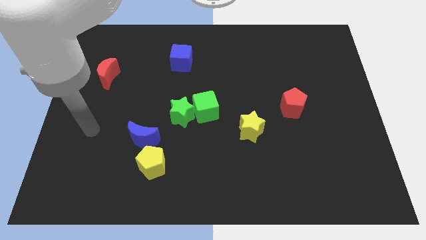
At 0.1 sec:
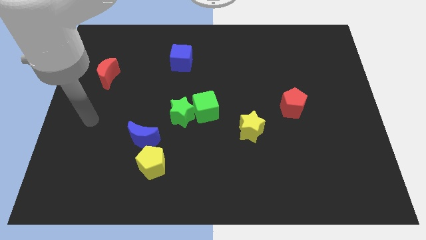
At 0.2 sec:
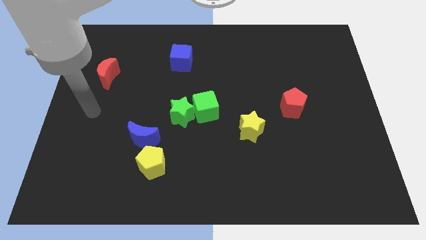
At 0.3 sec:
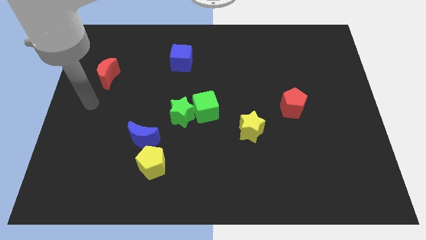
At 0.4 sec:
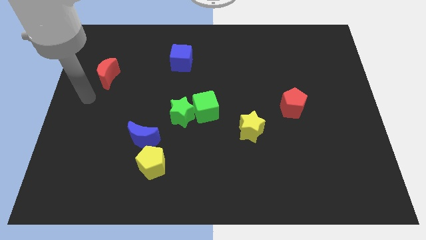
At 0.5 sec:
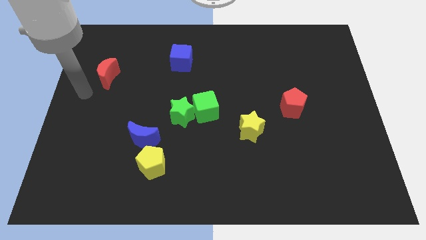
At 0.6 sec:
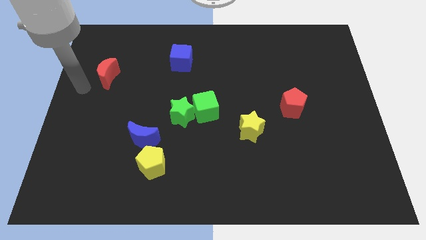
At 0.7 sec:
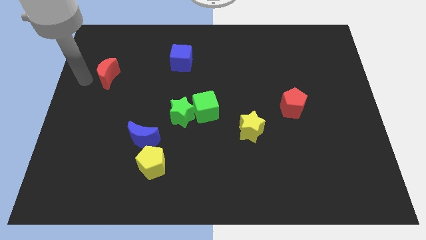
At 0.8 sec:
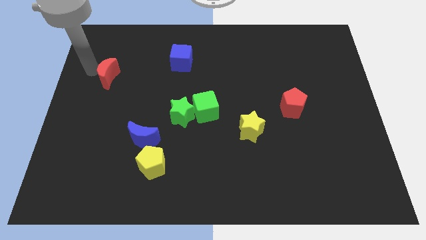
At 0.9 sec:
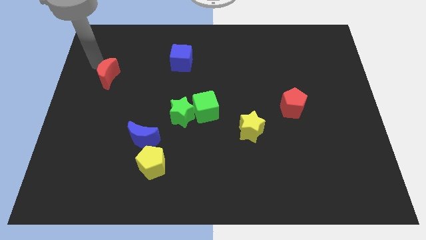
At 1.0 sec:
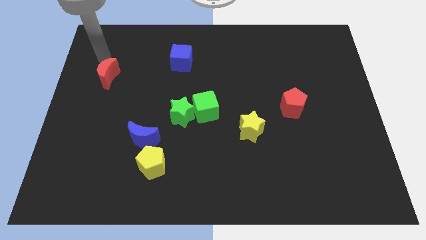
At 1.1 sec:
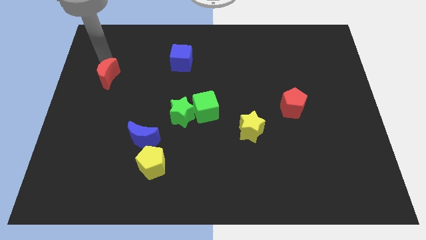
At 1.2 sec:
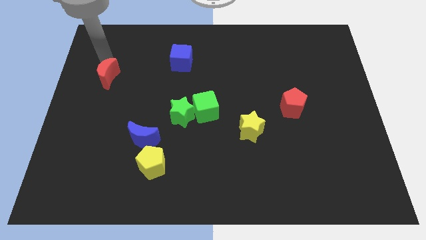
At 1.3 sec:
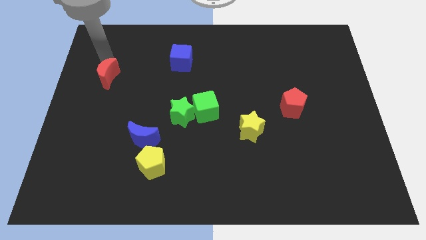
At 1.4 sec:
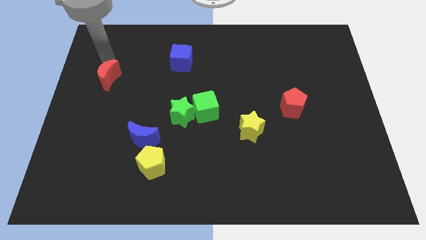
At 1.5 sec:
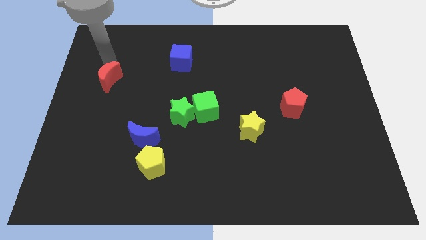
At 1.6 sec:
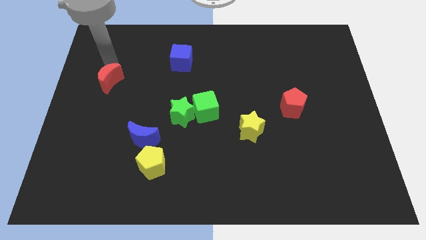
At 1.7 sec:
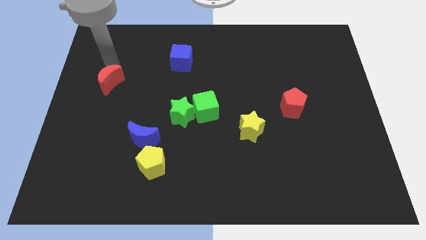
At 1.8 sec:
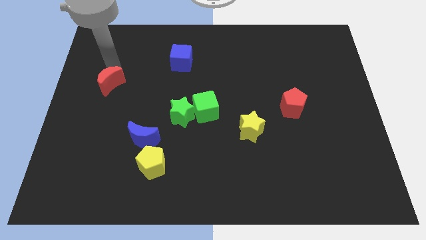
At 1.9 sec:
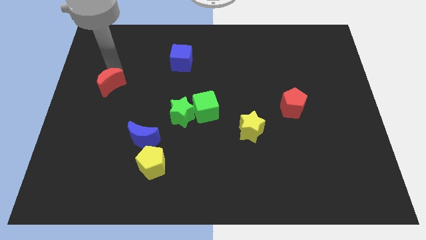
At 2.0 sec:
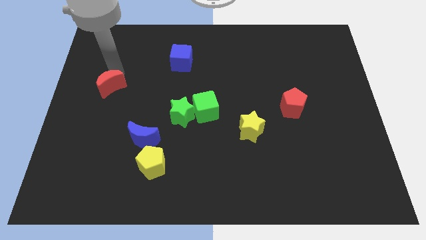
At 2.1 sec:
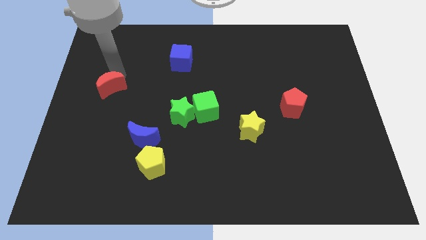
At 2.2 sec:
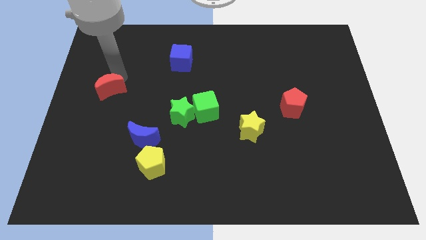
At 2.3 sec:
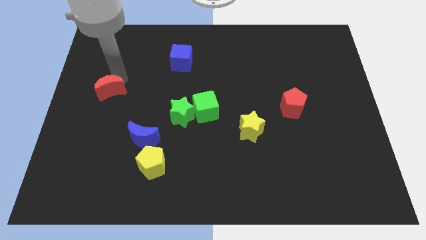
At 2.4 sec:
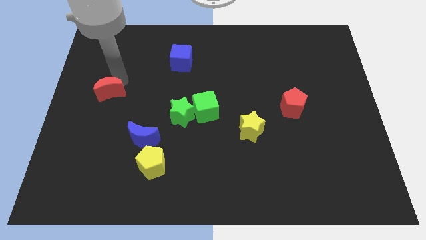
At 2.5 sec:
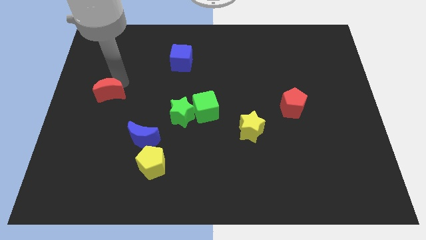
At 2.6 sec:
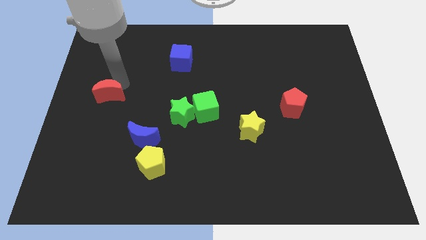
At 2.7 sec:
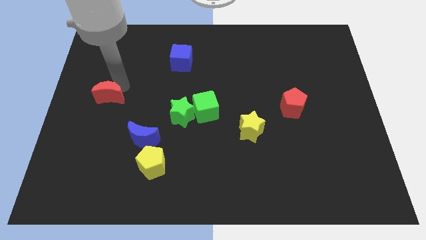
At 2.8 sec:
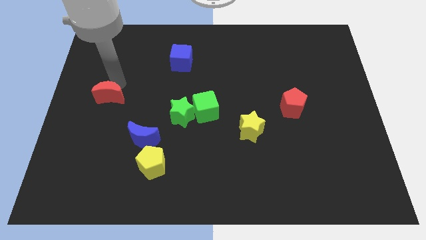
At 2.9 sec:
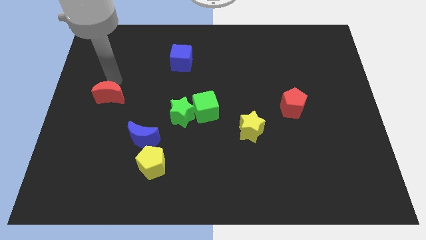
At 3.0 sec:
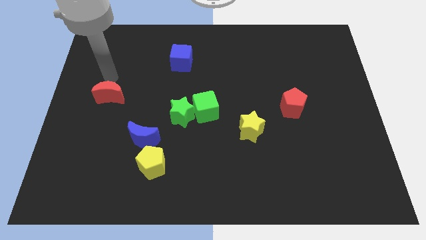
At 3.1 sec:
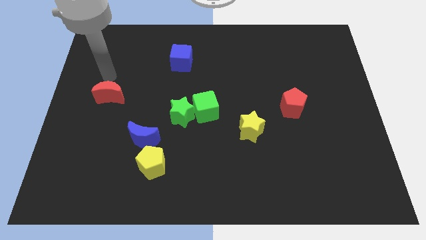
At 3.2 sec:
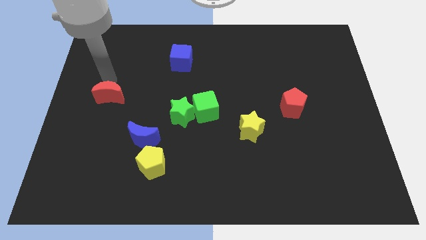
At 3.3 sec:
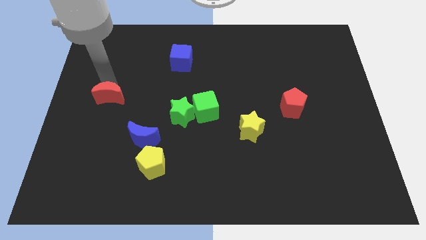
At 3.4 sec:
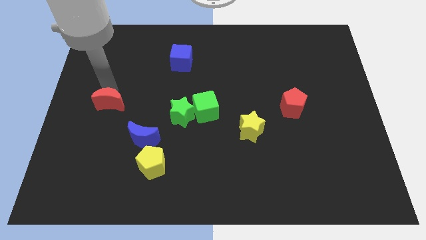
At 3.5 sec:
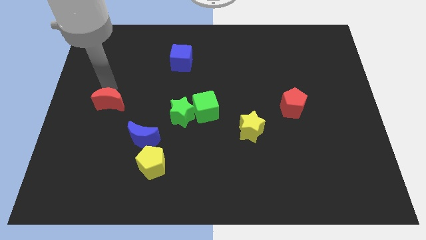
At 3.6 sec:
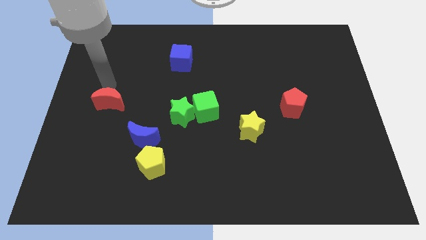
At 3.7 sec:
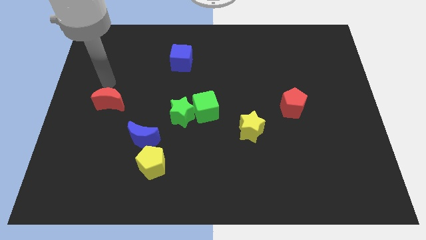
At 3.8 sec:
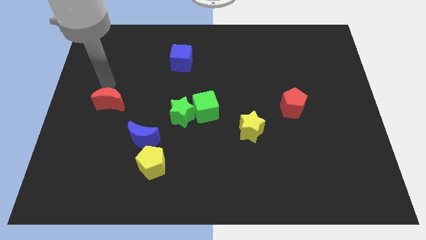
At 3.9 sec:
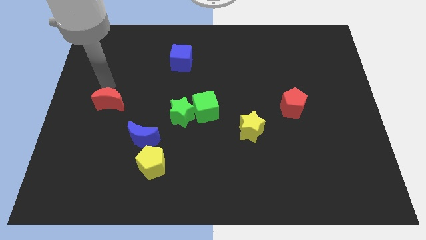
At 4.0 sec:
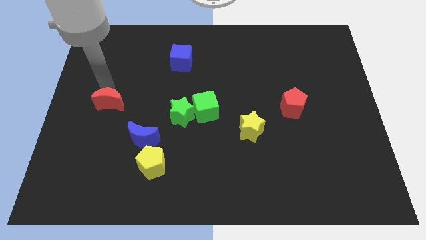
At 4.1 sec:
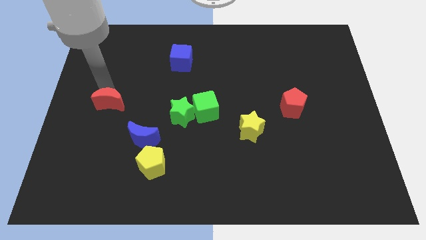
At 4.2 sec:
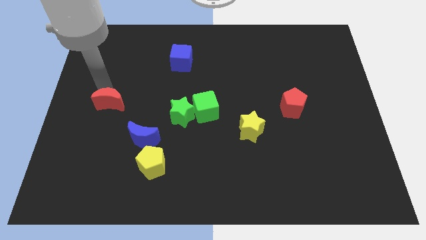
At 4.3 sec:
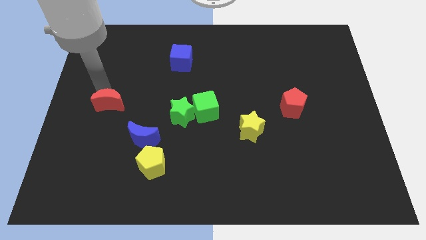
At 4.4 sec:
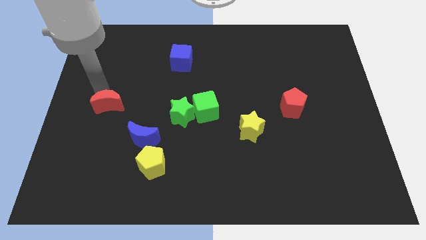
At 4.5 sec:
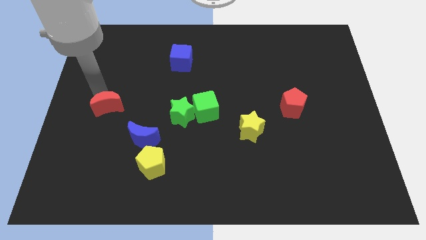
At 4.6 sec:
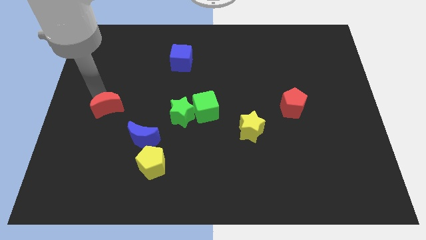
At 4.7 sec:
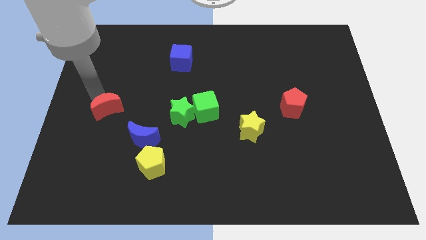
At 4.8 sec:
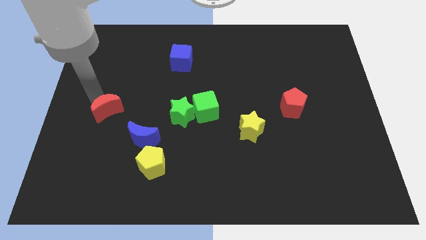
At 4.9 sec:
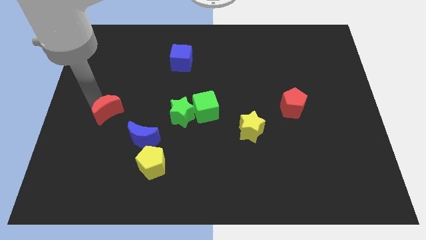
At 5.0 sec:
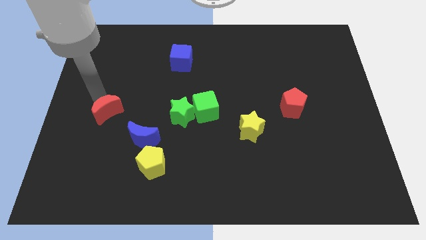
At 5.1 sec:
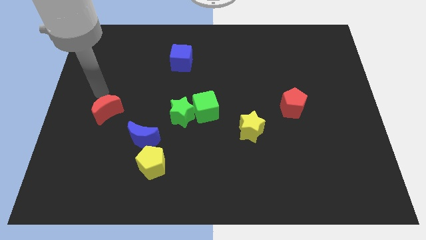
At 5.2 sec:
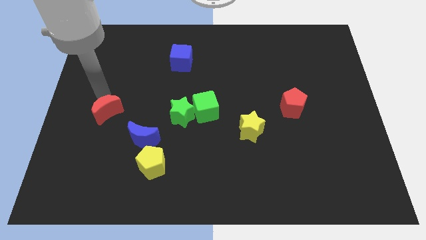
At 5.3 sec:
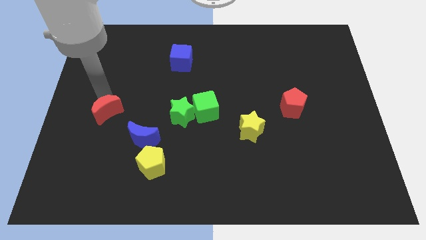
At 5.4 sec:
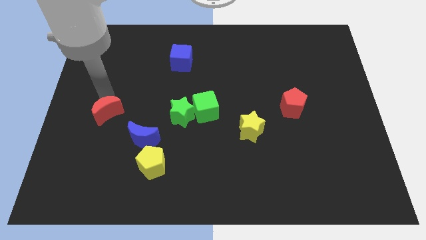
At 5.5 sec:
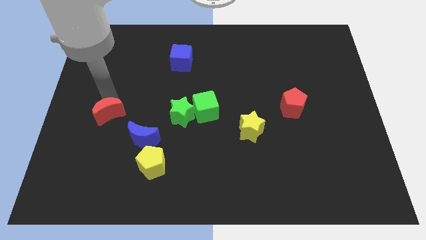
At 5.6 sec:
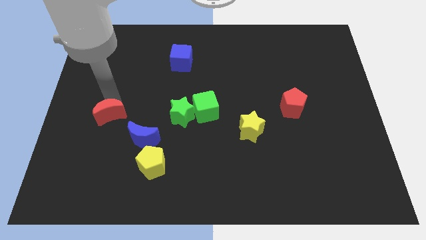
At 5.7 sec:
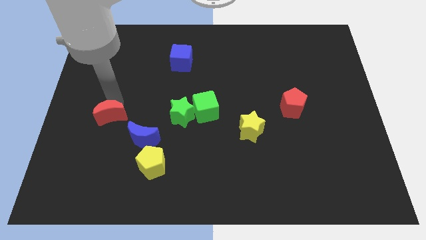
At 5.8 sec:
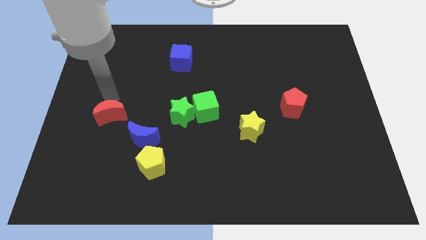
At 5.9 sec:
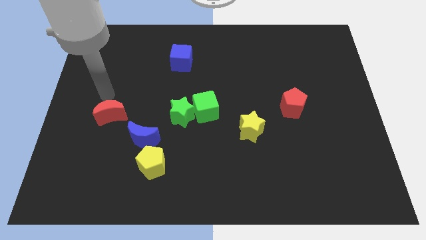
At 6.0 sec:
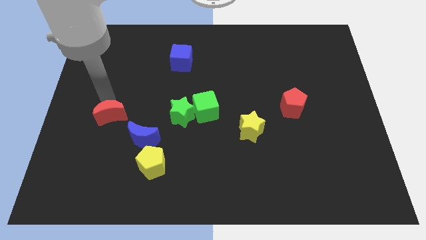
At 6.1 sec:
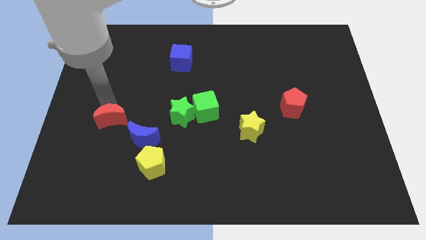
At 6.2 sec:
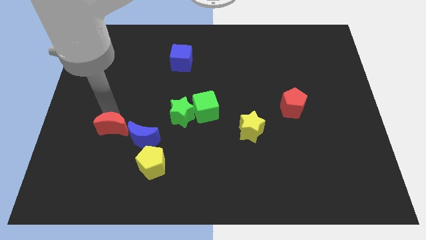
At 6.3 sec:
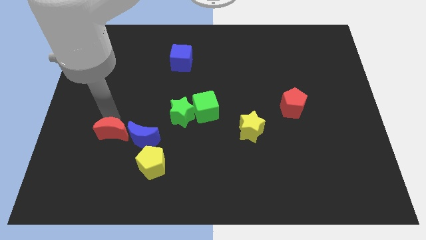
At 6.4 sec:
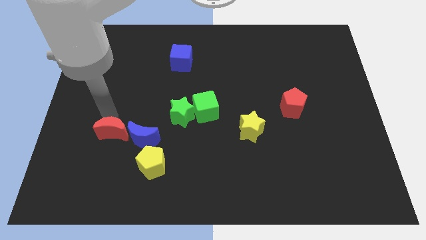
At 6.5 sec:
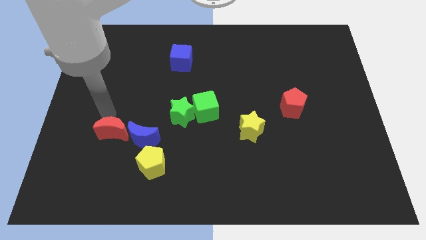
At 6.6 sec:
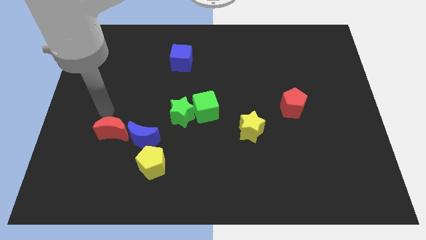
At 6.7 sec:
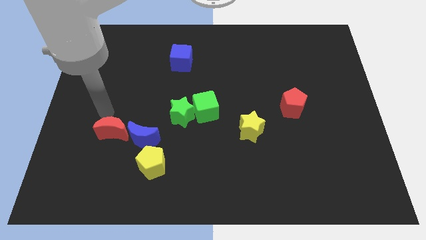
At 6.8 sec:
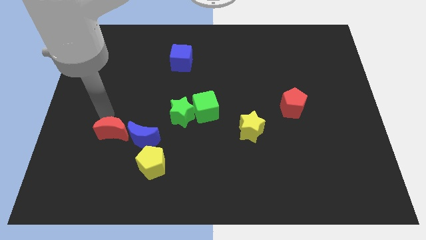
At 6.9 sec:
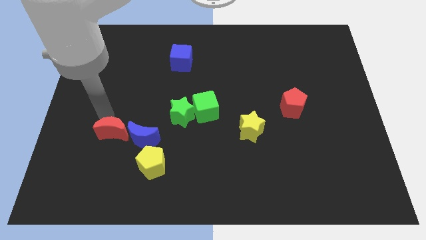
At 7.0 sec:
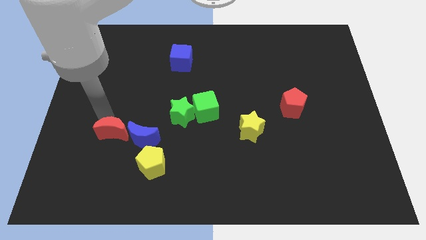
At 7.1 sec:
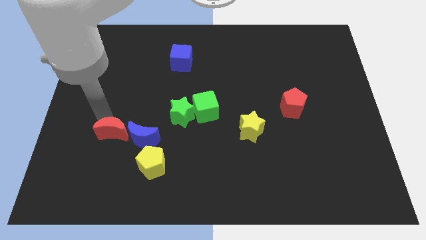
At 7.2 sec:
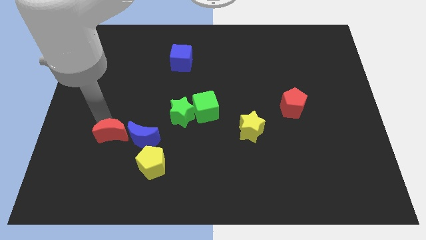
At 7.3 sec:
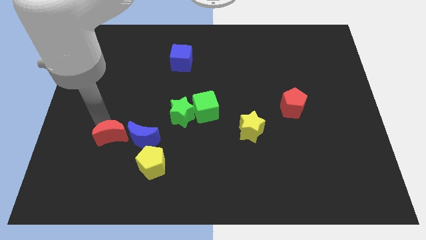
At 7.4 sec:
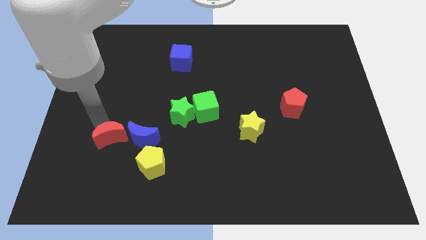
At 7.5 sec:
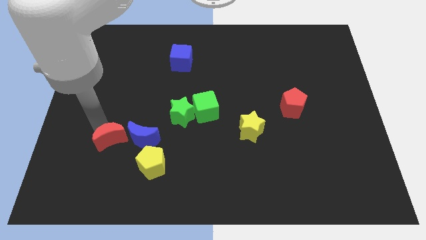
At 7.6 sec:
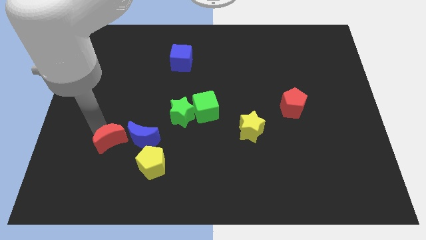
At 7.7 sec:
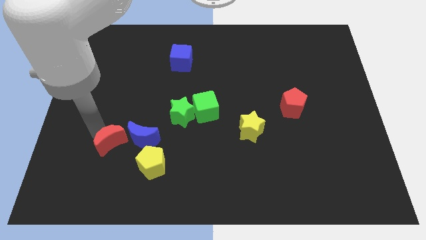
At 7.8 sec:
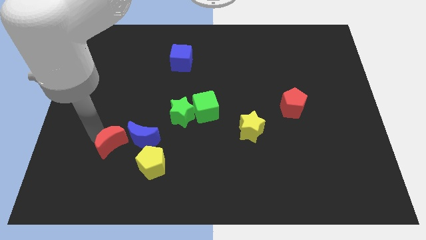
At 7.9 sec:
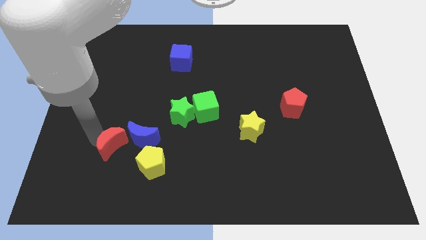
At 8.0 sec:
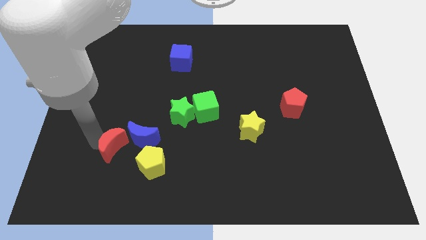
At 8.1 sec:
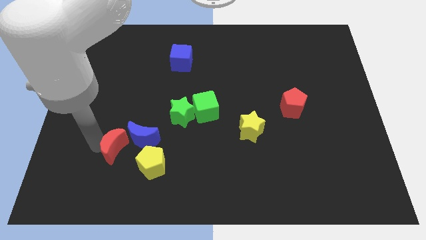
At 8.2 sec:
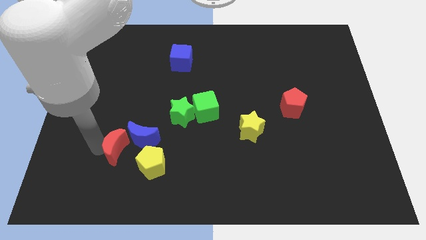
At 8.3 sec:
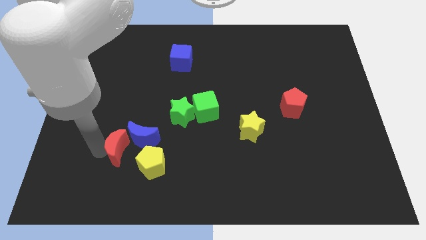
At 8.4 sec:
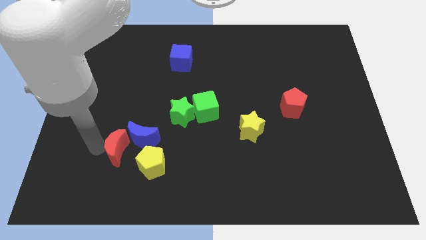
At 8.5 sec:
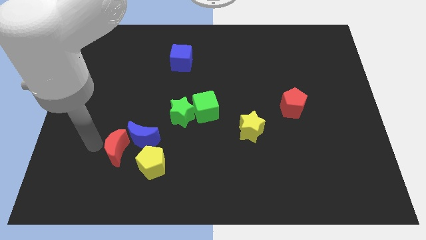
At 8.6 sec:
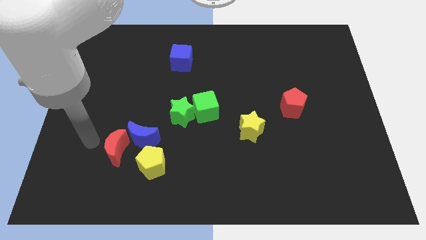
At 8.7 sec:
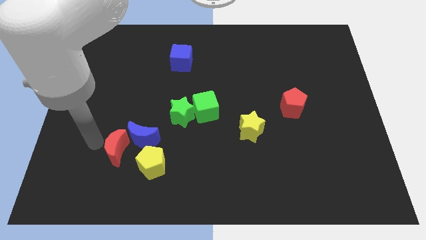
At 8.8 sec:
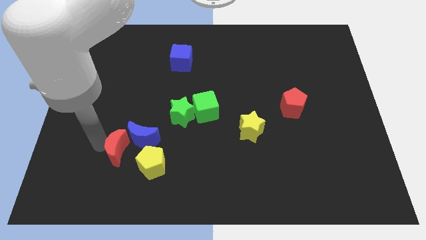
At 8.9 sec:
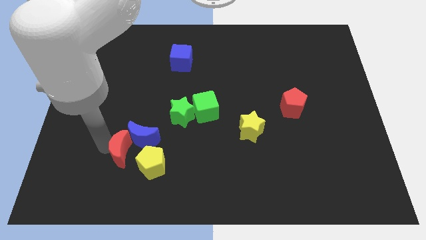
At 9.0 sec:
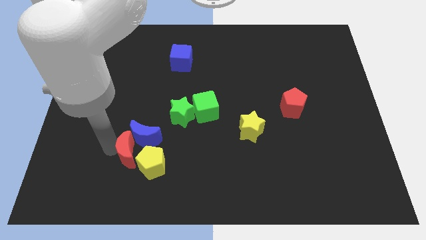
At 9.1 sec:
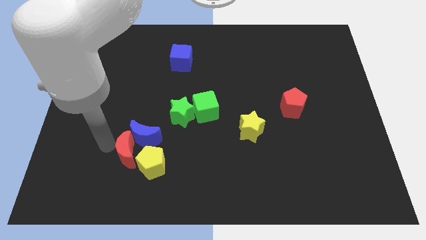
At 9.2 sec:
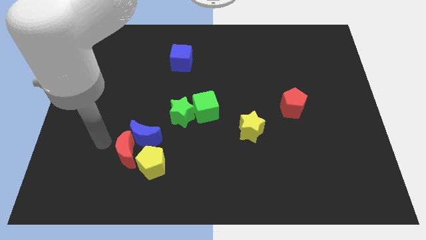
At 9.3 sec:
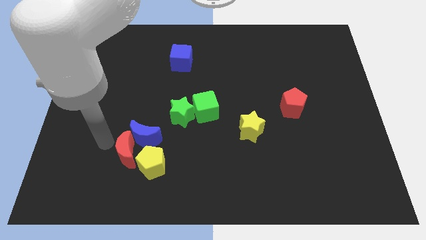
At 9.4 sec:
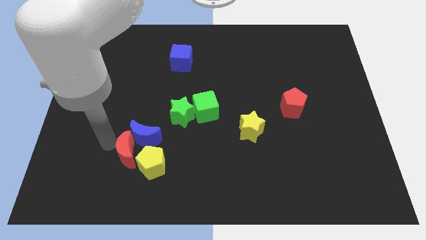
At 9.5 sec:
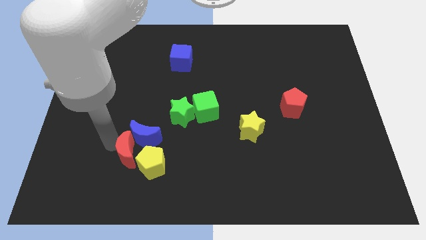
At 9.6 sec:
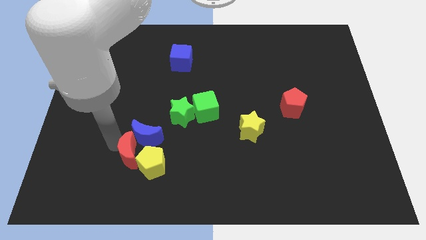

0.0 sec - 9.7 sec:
move the red moon next to the yellow pentagon
